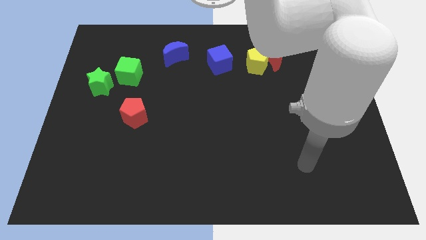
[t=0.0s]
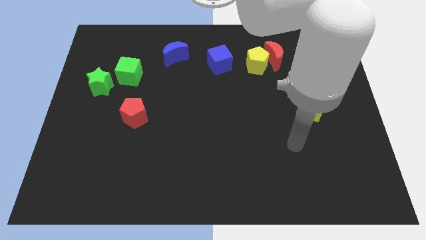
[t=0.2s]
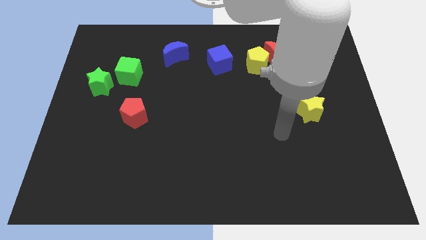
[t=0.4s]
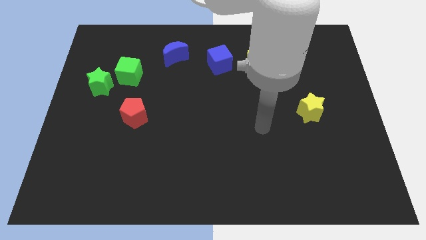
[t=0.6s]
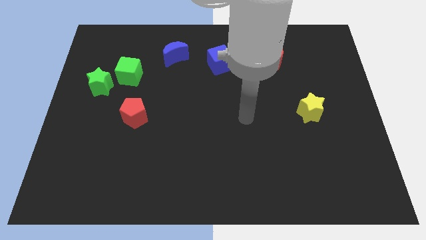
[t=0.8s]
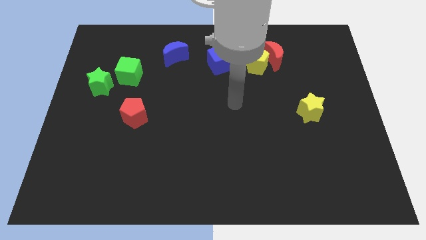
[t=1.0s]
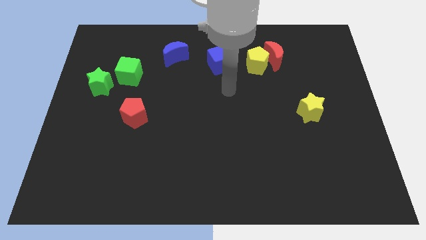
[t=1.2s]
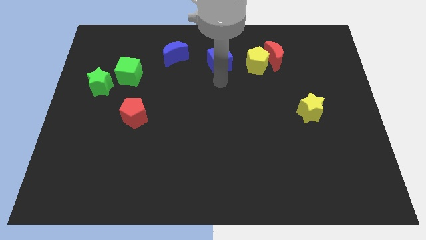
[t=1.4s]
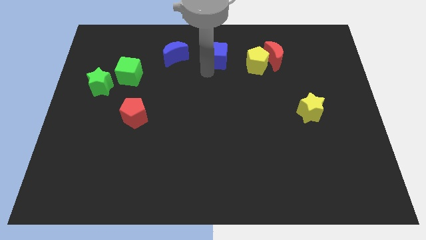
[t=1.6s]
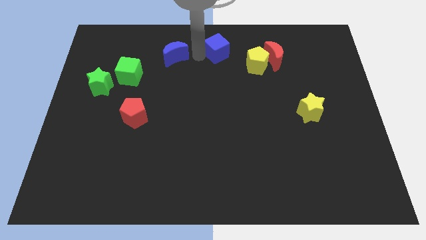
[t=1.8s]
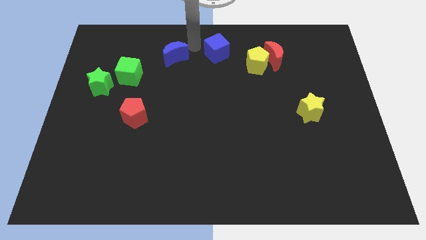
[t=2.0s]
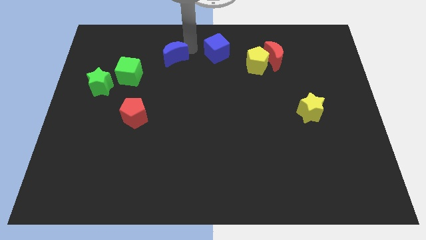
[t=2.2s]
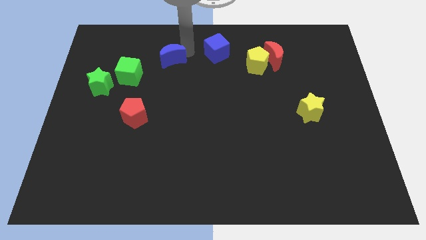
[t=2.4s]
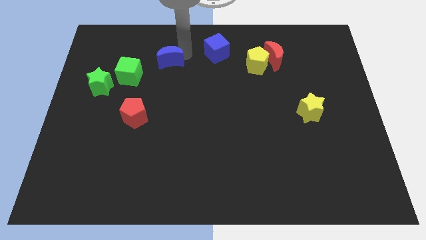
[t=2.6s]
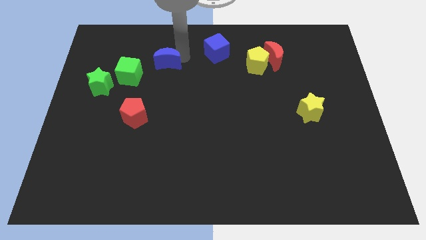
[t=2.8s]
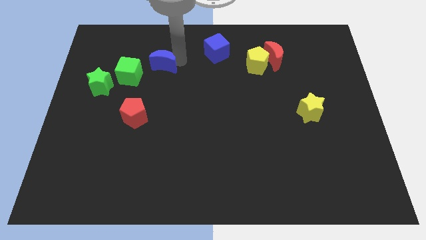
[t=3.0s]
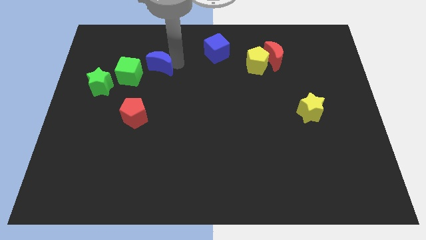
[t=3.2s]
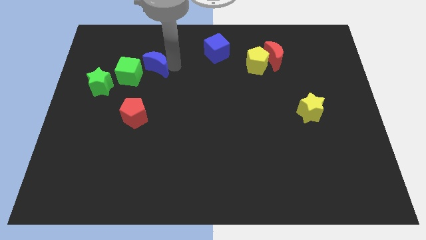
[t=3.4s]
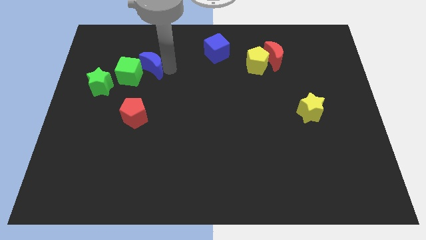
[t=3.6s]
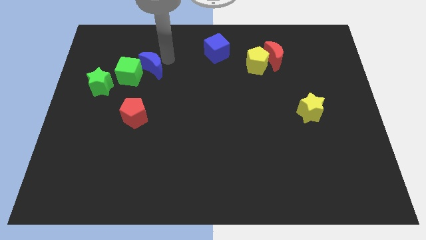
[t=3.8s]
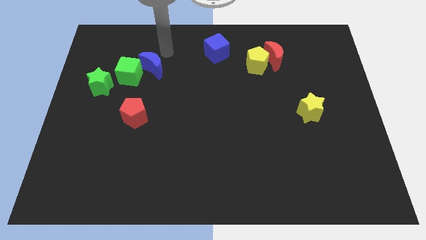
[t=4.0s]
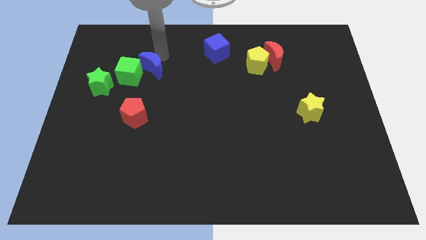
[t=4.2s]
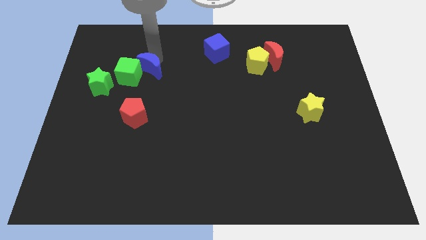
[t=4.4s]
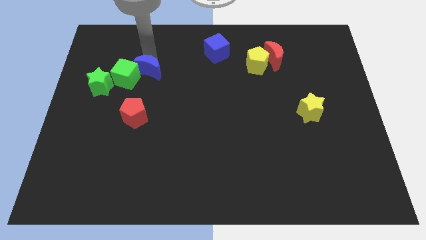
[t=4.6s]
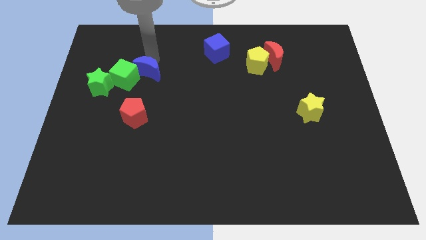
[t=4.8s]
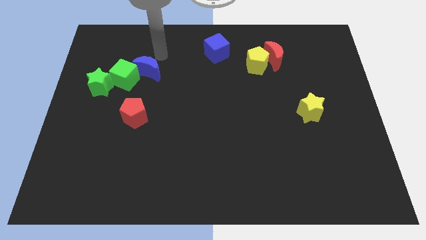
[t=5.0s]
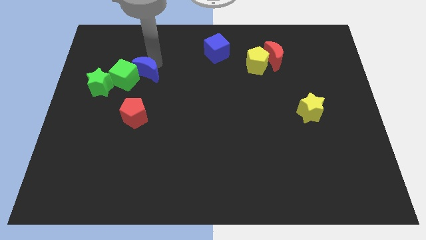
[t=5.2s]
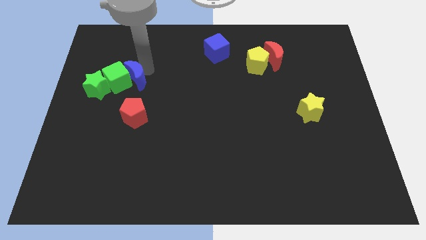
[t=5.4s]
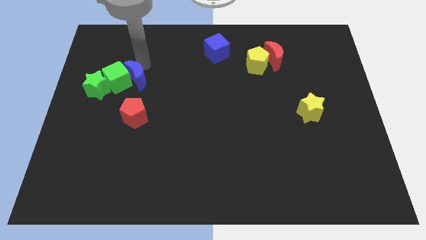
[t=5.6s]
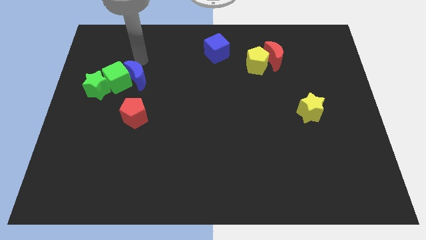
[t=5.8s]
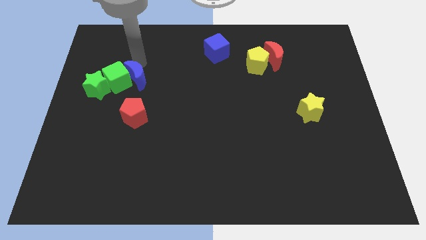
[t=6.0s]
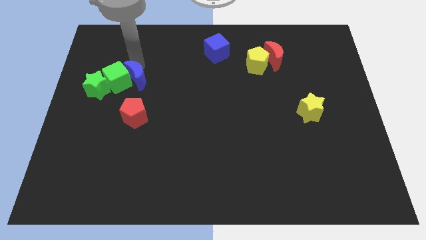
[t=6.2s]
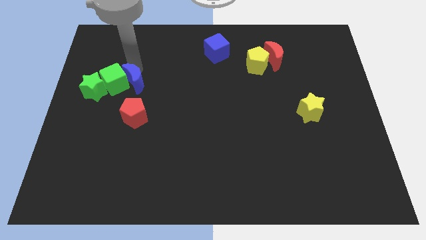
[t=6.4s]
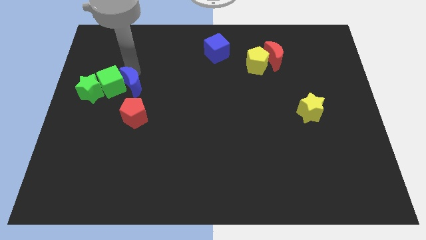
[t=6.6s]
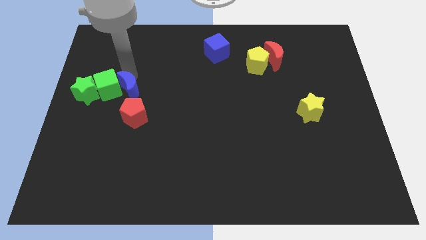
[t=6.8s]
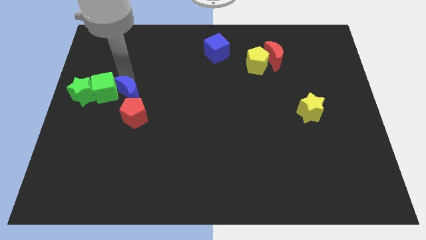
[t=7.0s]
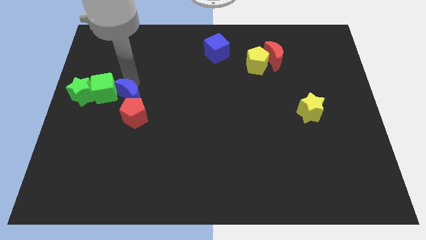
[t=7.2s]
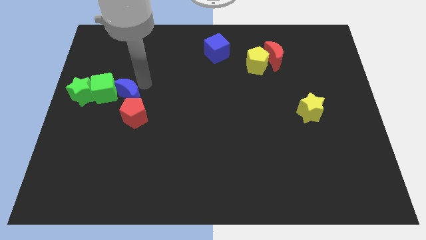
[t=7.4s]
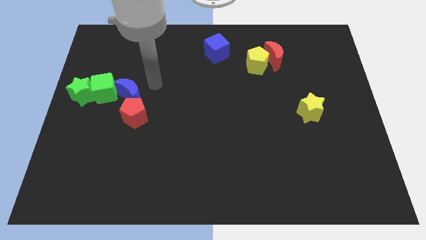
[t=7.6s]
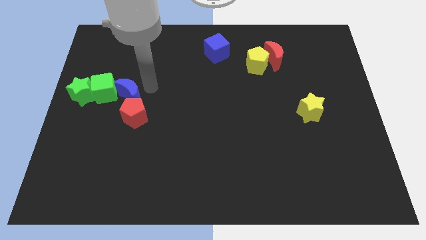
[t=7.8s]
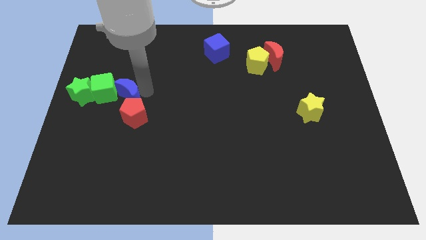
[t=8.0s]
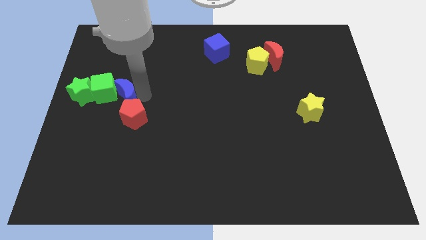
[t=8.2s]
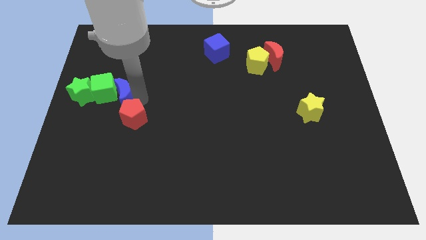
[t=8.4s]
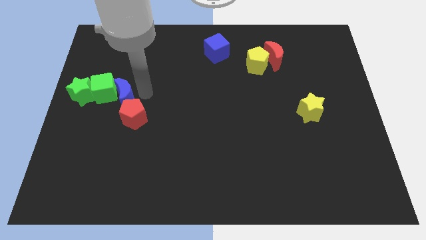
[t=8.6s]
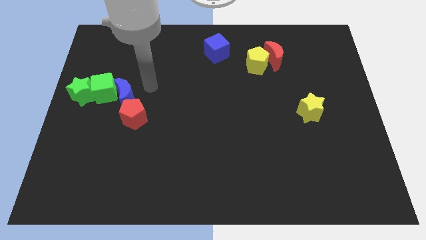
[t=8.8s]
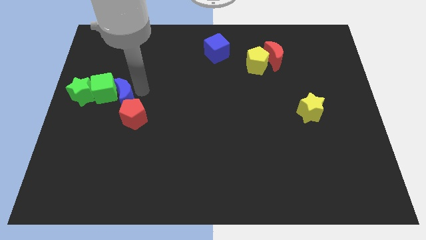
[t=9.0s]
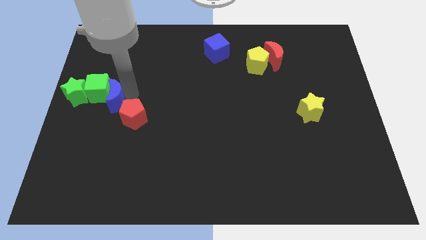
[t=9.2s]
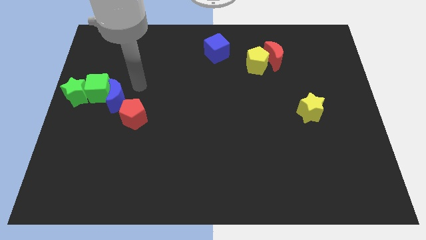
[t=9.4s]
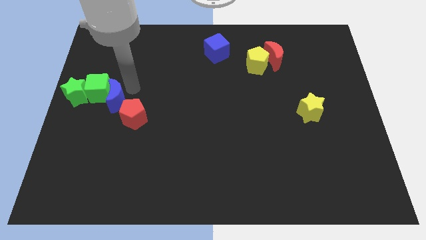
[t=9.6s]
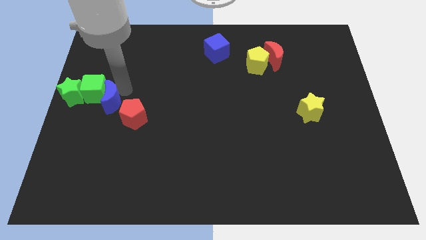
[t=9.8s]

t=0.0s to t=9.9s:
slide the blue moon to the left of the red pentagon

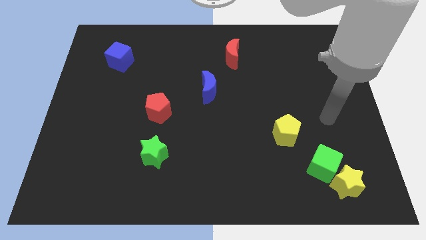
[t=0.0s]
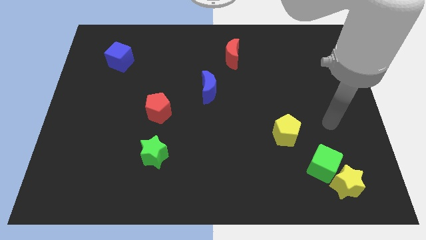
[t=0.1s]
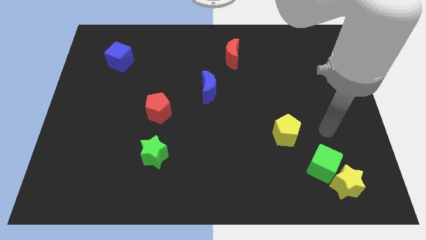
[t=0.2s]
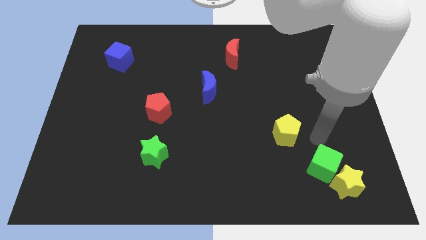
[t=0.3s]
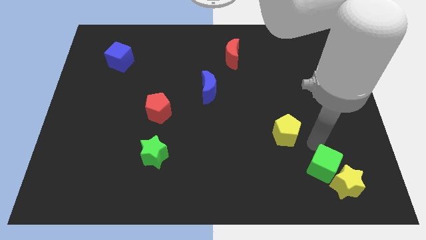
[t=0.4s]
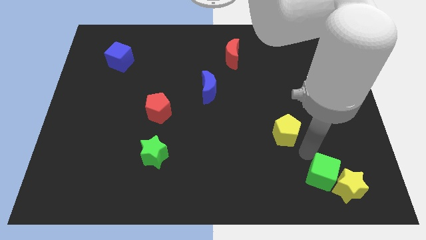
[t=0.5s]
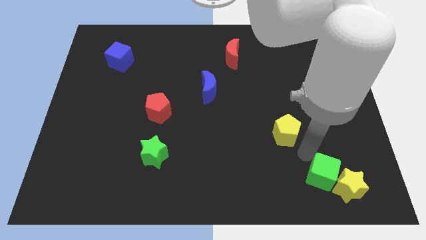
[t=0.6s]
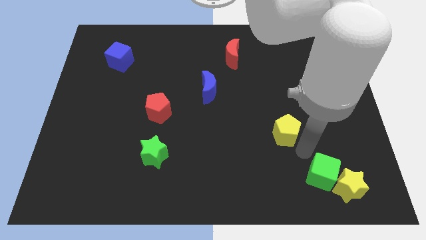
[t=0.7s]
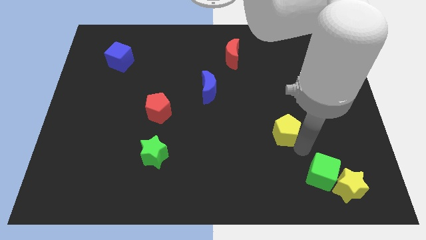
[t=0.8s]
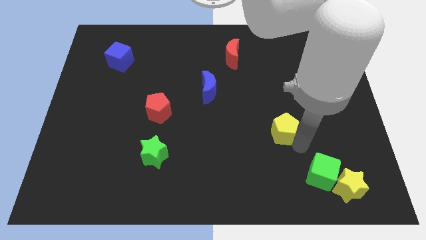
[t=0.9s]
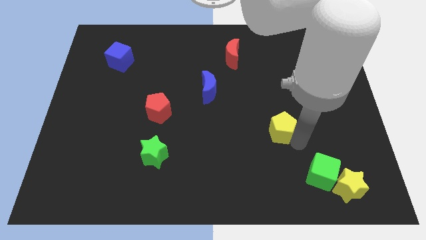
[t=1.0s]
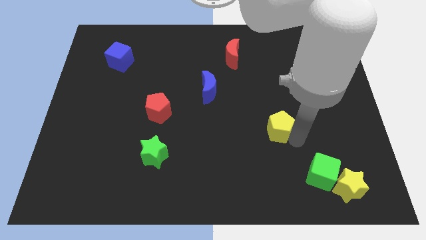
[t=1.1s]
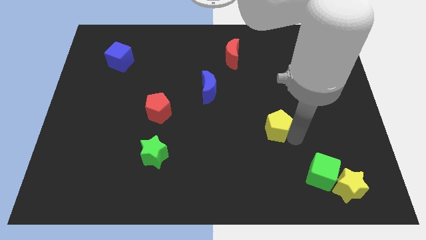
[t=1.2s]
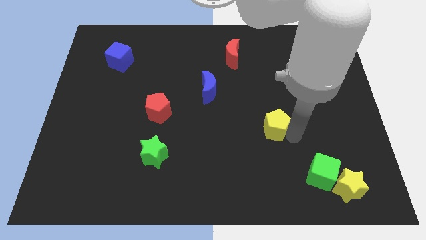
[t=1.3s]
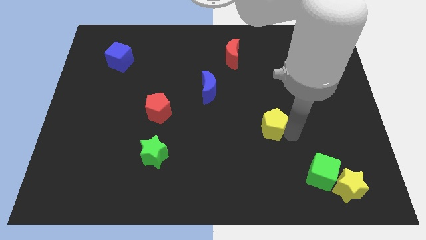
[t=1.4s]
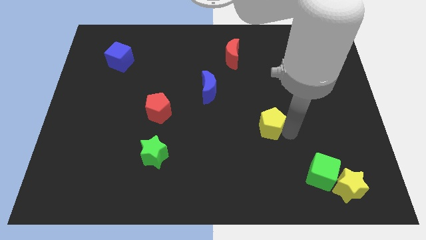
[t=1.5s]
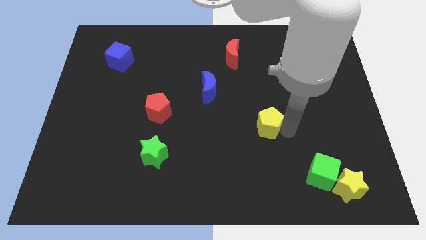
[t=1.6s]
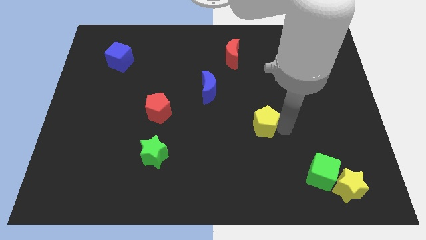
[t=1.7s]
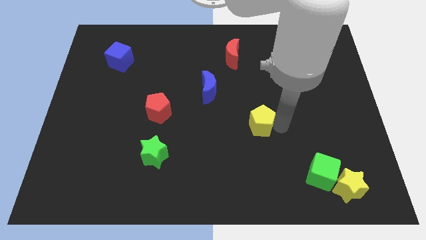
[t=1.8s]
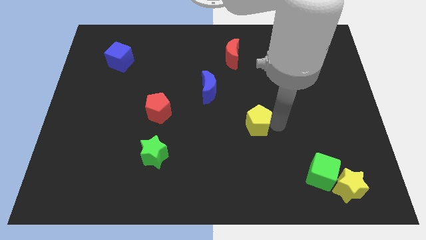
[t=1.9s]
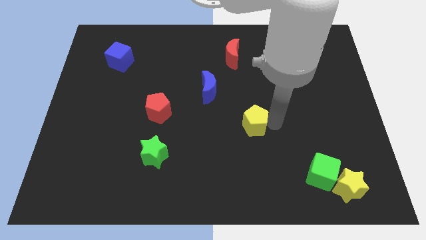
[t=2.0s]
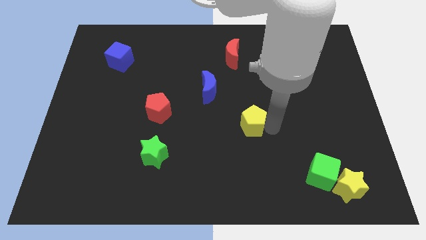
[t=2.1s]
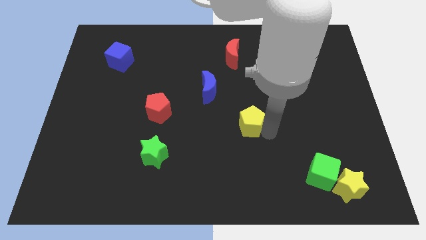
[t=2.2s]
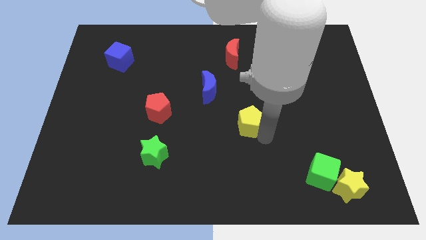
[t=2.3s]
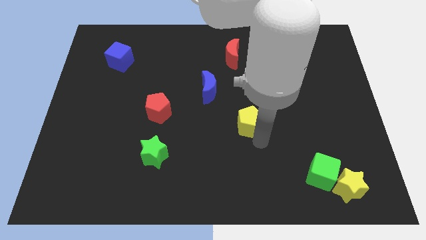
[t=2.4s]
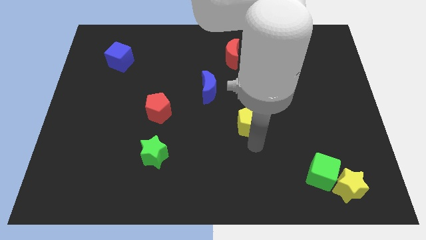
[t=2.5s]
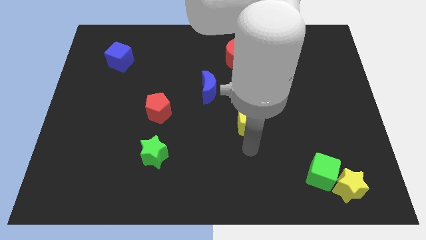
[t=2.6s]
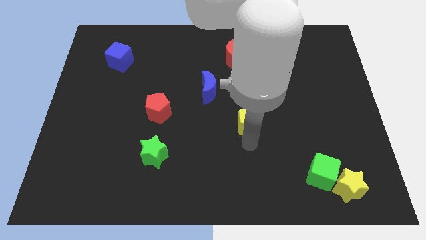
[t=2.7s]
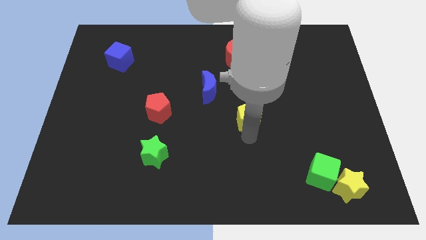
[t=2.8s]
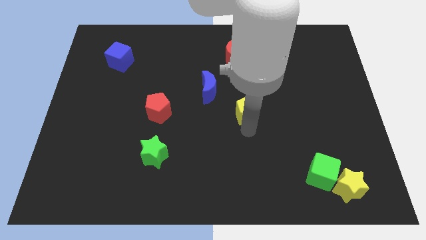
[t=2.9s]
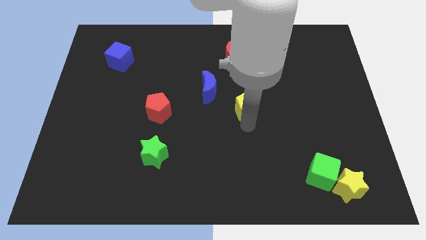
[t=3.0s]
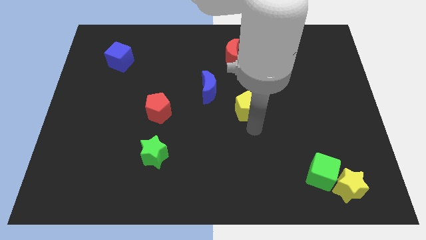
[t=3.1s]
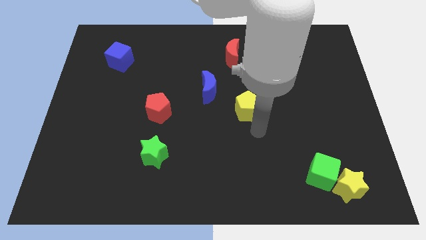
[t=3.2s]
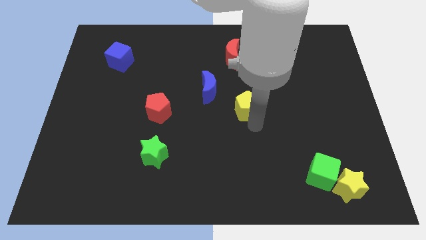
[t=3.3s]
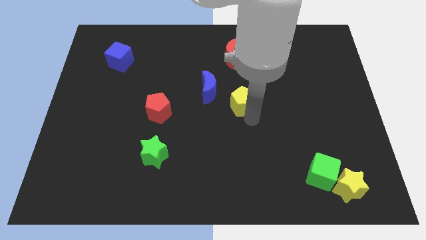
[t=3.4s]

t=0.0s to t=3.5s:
put the yellow pentagon to the bottom of the red moon
